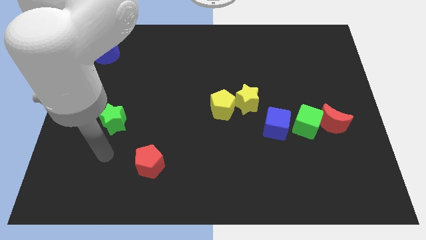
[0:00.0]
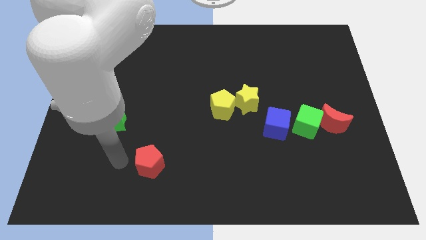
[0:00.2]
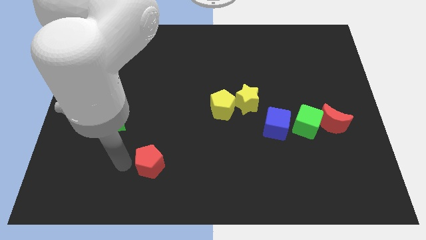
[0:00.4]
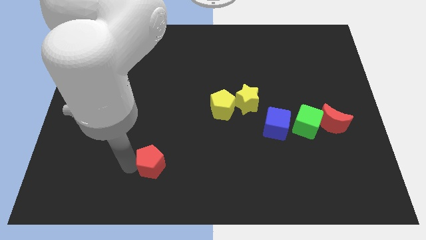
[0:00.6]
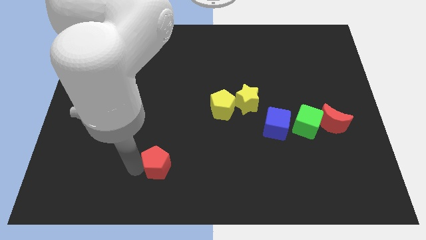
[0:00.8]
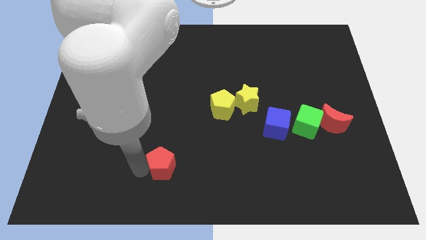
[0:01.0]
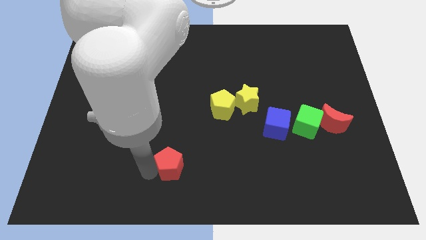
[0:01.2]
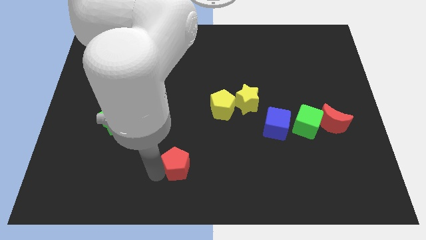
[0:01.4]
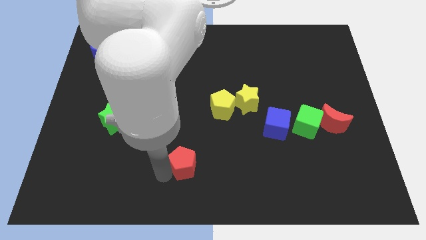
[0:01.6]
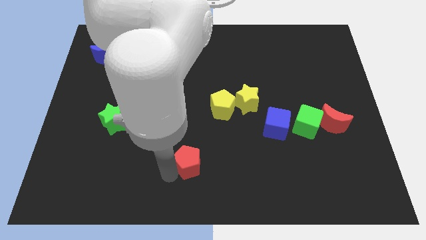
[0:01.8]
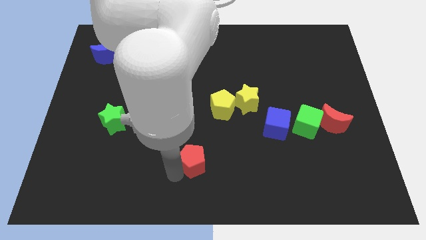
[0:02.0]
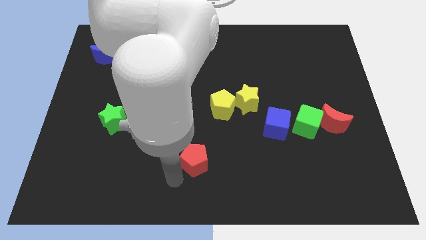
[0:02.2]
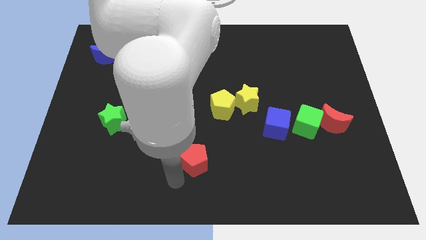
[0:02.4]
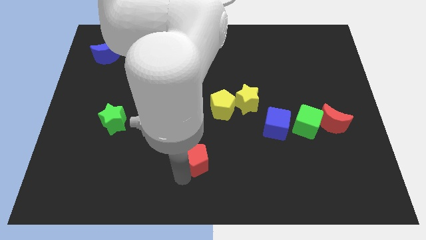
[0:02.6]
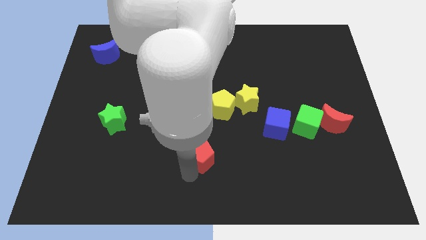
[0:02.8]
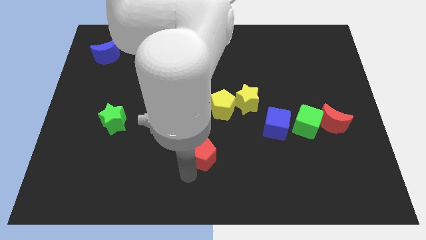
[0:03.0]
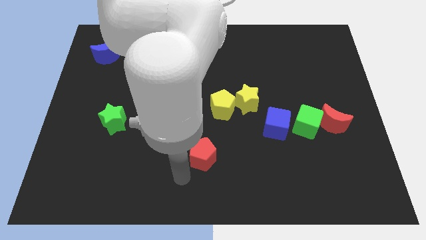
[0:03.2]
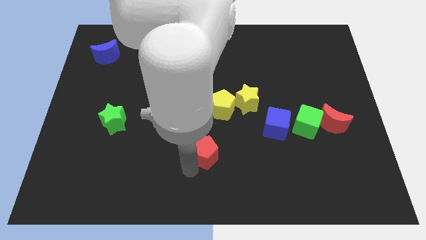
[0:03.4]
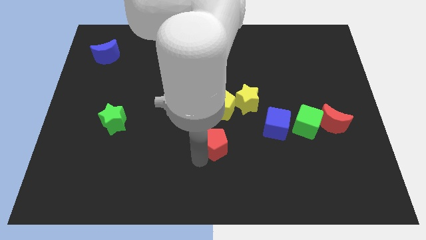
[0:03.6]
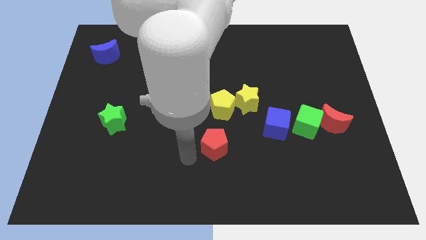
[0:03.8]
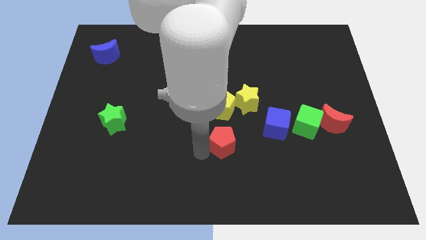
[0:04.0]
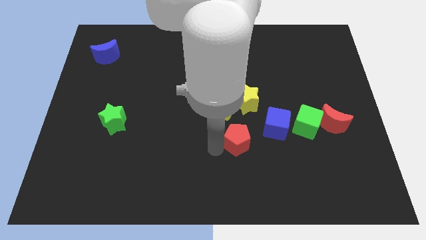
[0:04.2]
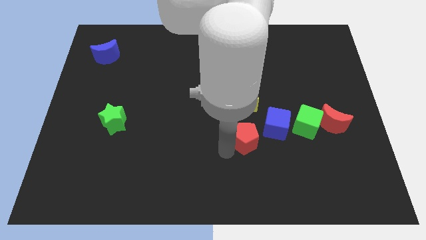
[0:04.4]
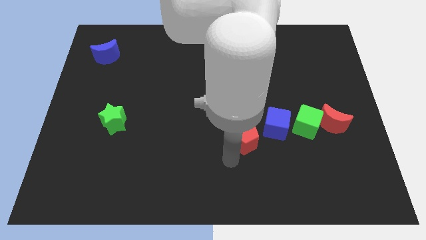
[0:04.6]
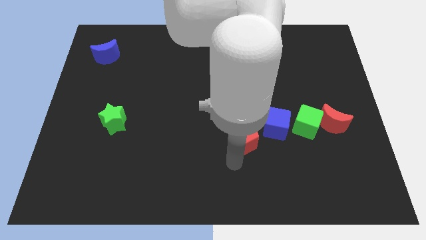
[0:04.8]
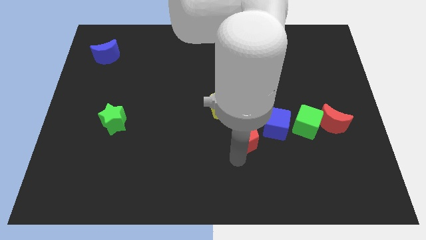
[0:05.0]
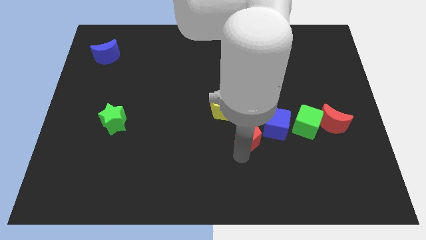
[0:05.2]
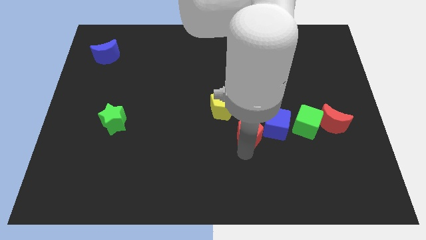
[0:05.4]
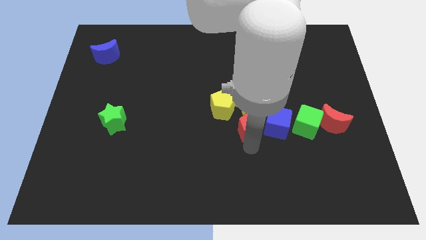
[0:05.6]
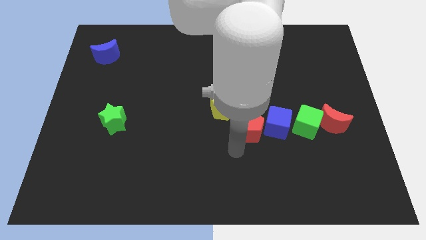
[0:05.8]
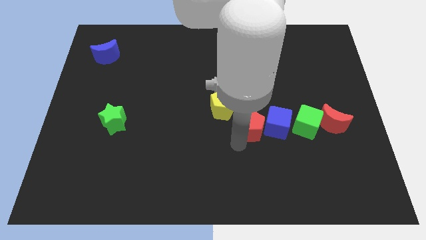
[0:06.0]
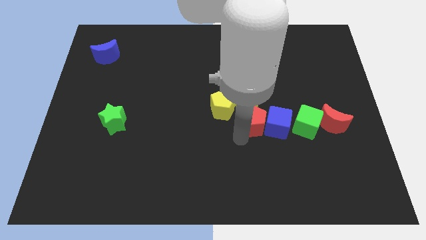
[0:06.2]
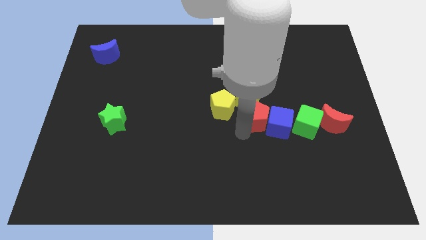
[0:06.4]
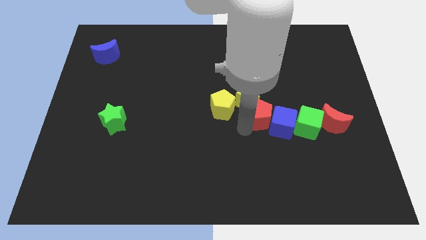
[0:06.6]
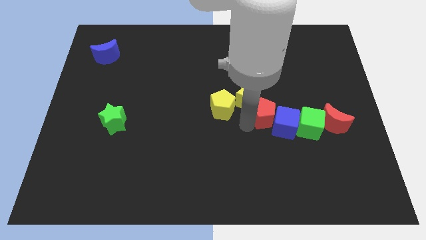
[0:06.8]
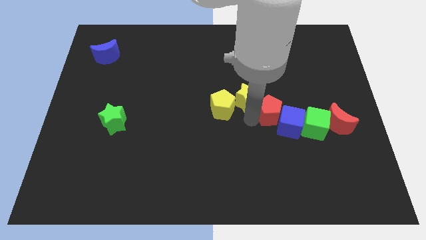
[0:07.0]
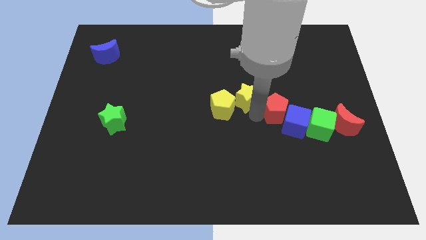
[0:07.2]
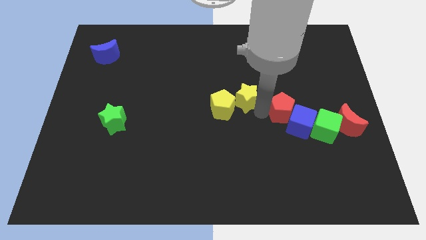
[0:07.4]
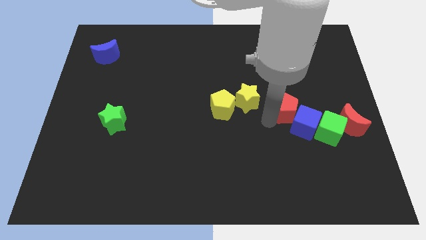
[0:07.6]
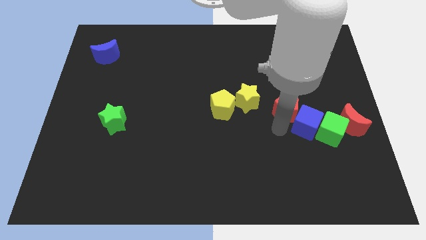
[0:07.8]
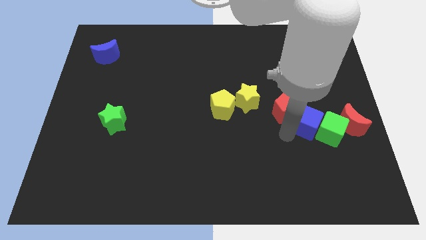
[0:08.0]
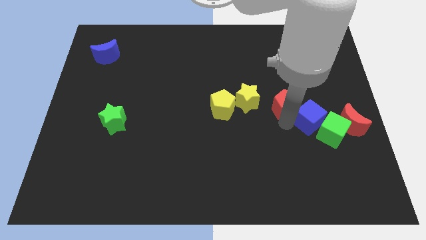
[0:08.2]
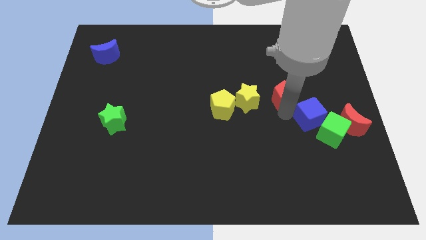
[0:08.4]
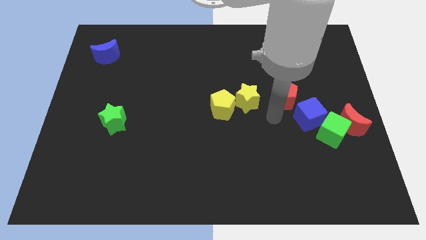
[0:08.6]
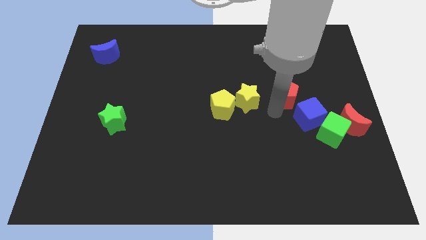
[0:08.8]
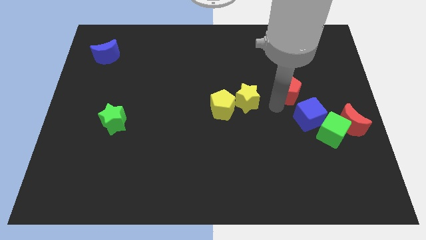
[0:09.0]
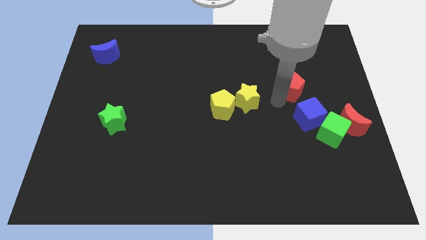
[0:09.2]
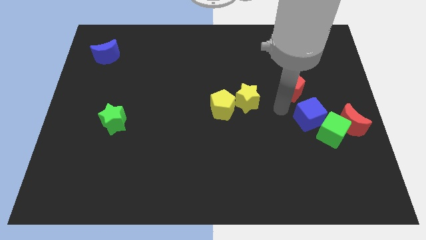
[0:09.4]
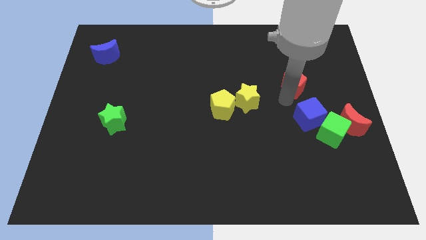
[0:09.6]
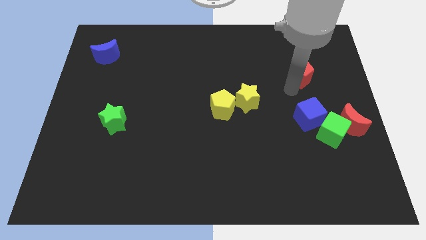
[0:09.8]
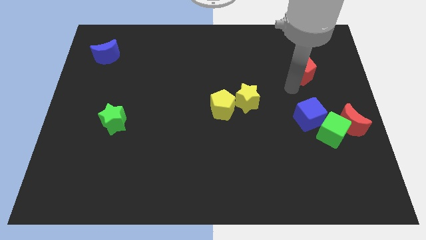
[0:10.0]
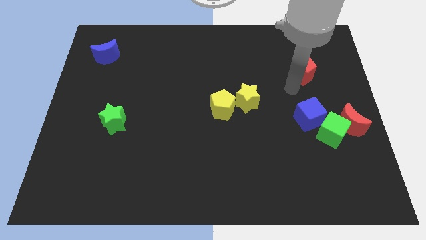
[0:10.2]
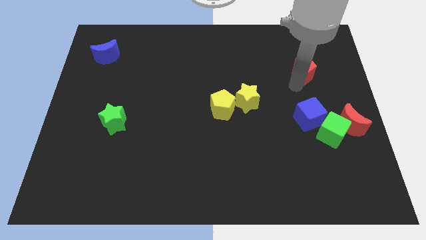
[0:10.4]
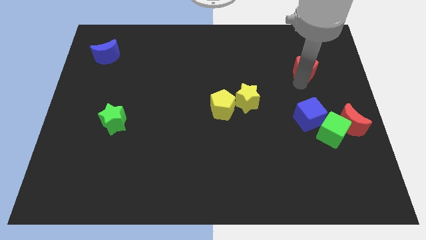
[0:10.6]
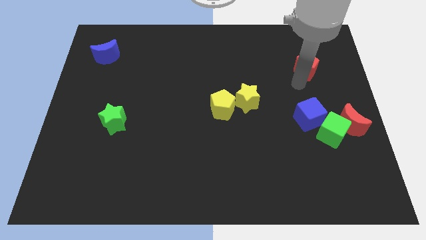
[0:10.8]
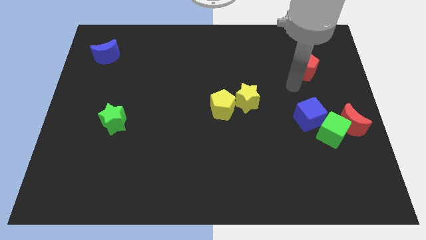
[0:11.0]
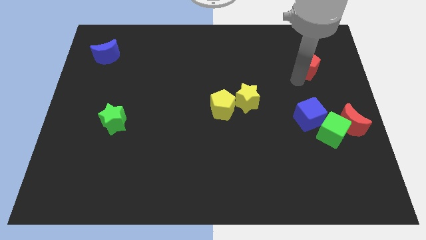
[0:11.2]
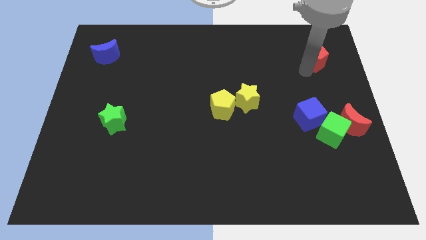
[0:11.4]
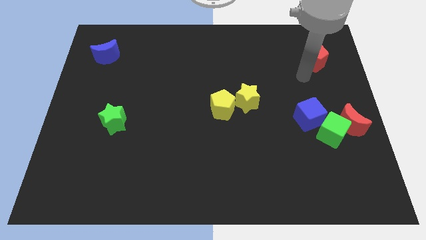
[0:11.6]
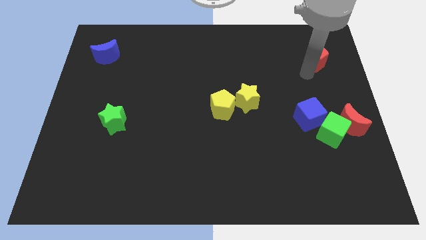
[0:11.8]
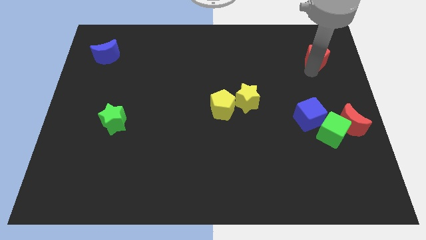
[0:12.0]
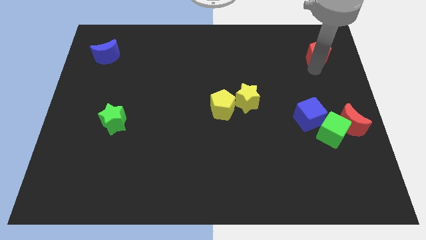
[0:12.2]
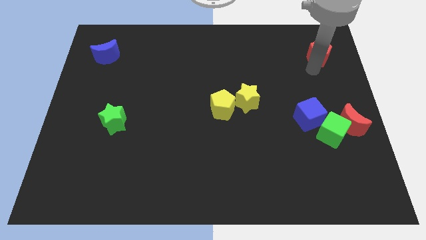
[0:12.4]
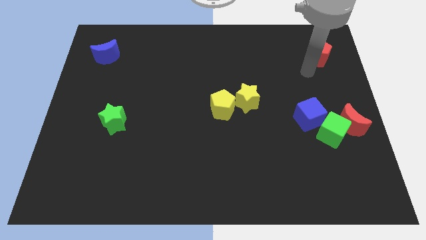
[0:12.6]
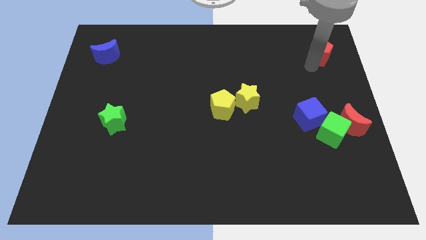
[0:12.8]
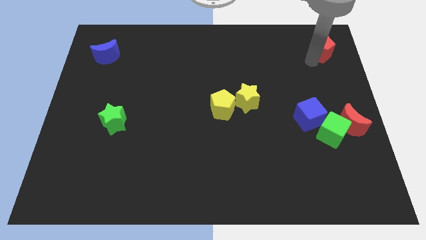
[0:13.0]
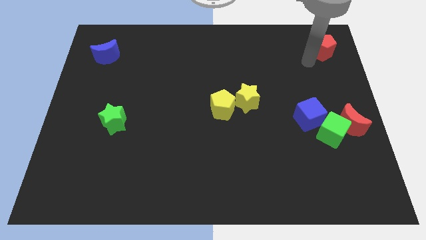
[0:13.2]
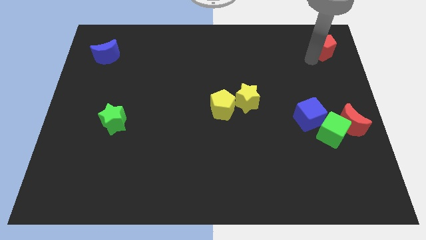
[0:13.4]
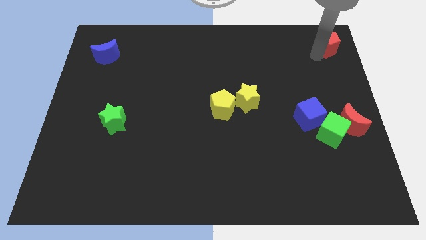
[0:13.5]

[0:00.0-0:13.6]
put the red pentagon to the top right of the board

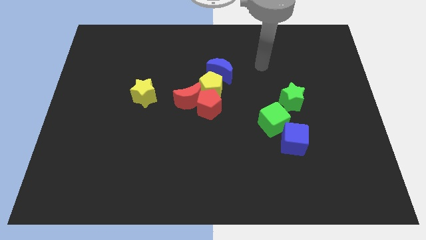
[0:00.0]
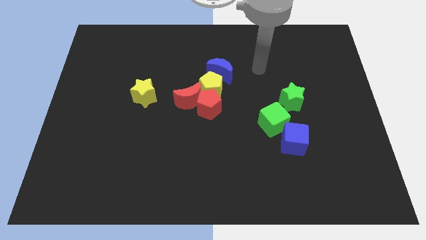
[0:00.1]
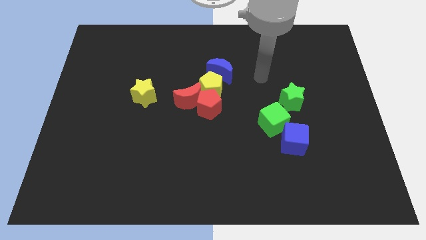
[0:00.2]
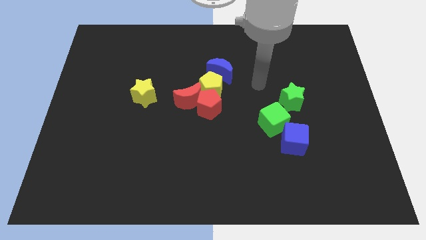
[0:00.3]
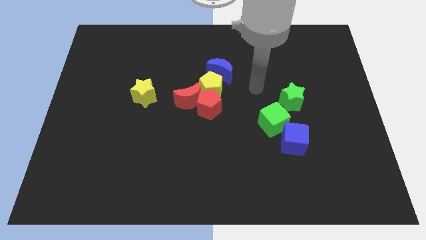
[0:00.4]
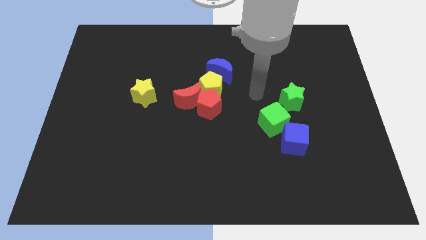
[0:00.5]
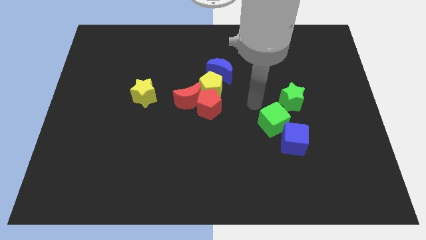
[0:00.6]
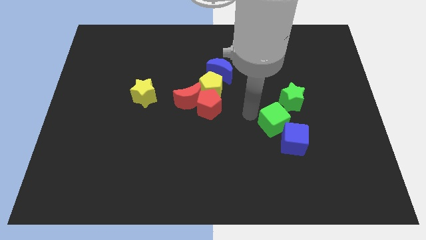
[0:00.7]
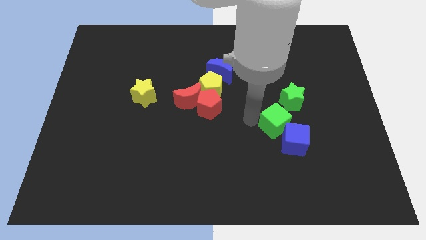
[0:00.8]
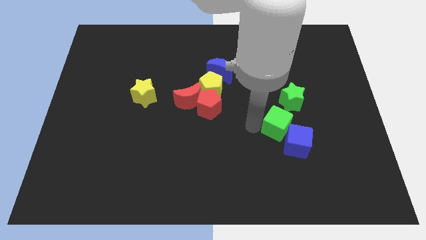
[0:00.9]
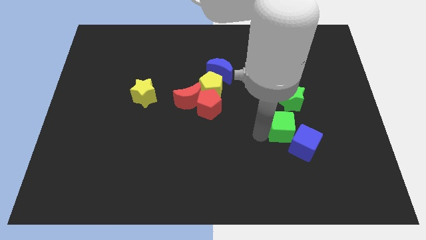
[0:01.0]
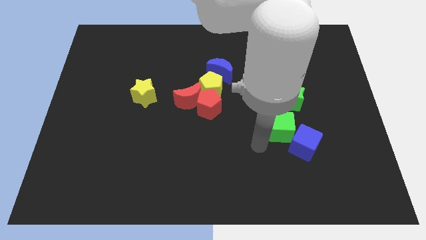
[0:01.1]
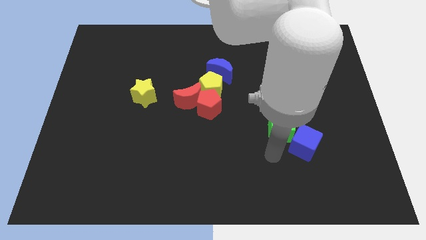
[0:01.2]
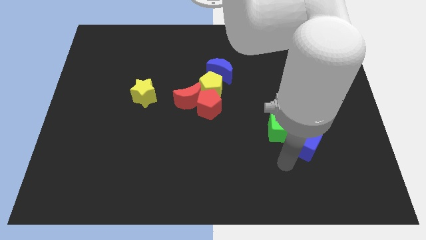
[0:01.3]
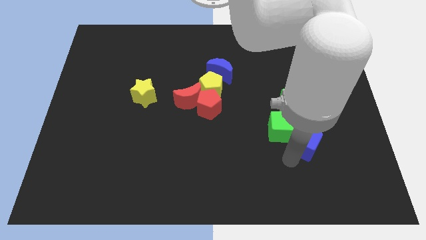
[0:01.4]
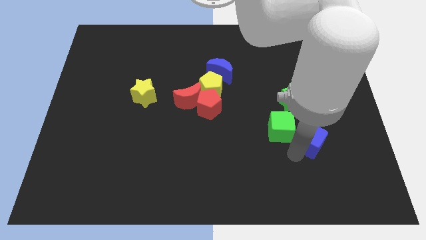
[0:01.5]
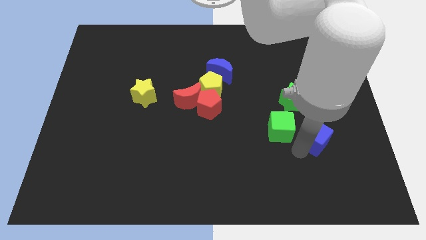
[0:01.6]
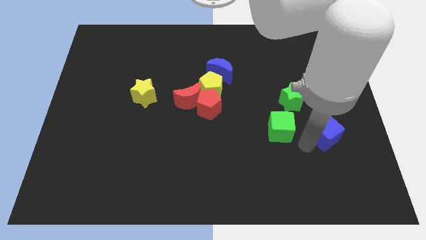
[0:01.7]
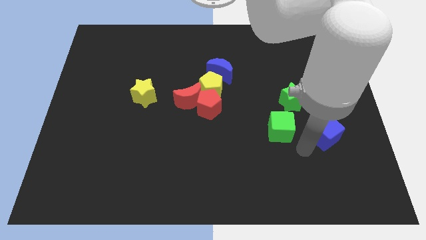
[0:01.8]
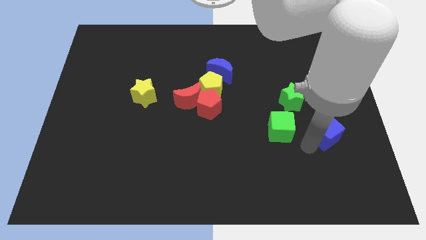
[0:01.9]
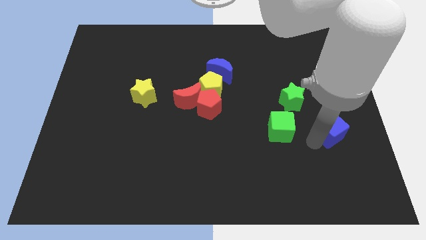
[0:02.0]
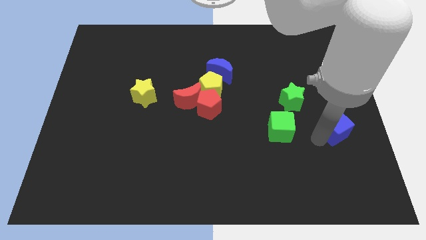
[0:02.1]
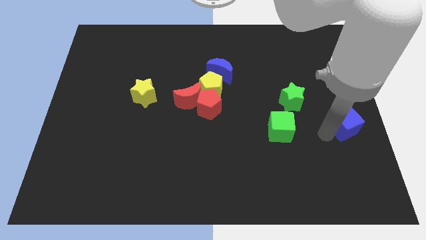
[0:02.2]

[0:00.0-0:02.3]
push the blue cube to the center right
